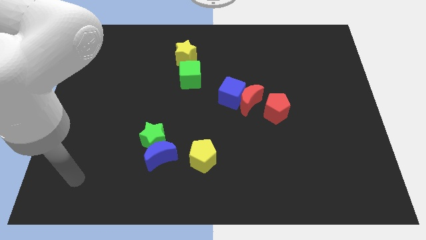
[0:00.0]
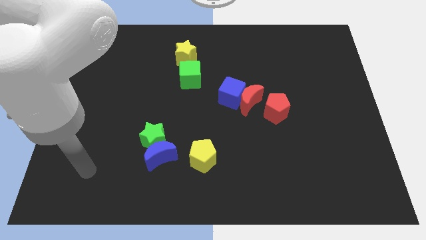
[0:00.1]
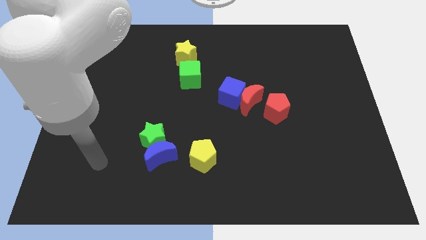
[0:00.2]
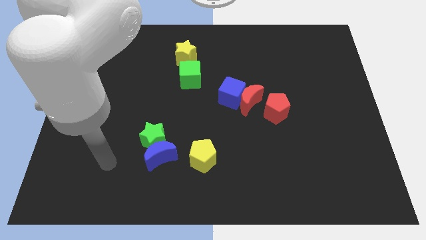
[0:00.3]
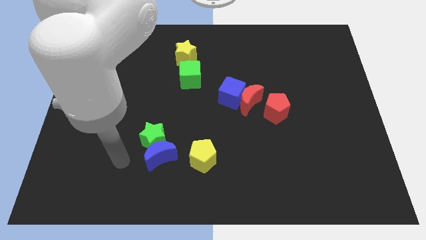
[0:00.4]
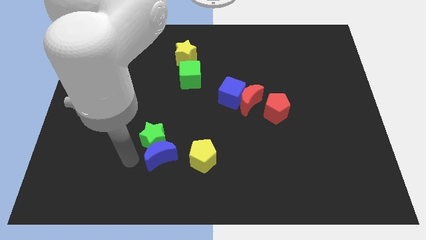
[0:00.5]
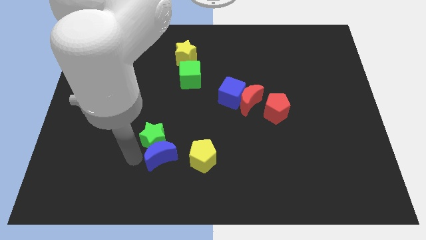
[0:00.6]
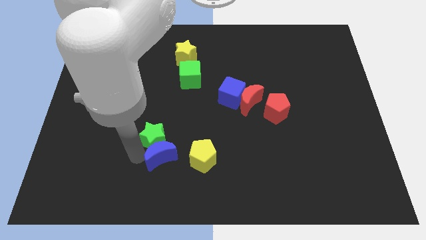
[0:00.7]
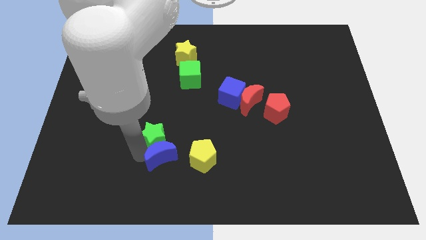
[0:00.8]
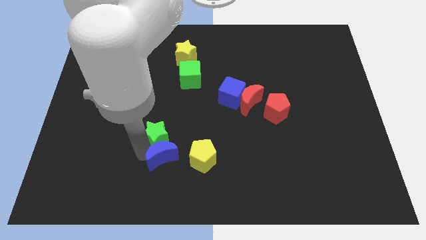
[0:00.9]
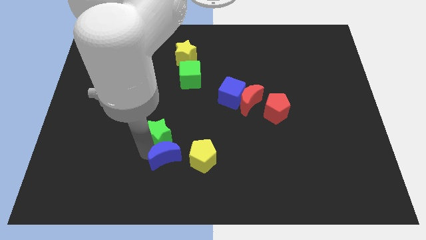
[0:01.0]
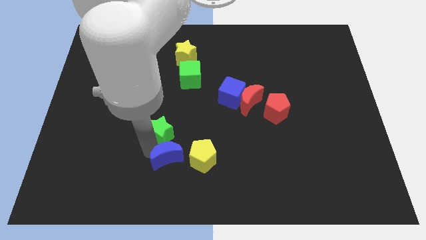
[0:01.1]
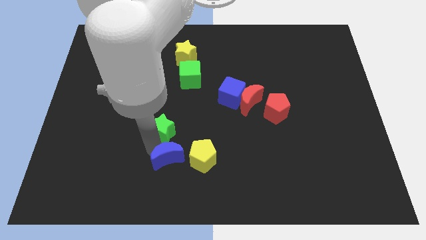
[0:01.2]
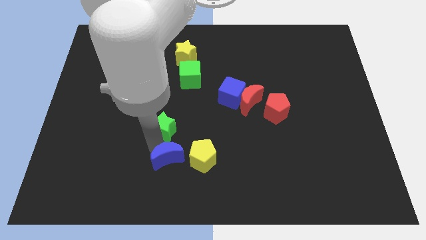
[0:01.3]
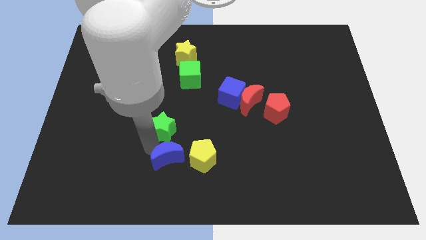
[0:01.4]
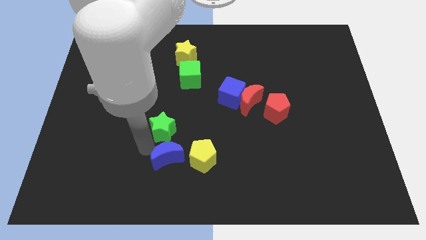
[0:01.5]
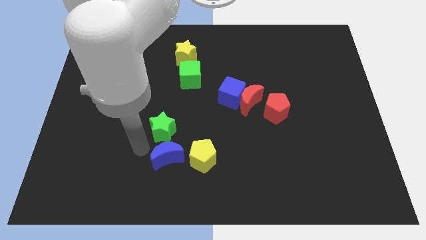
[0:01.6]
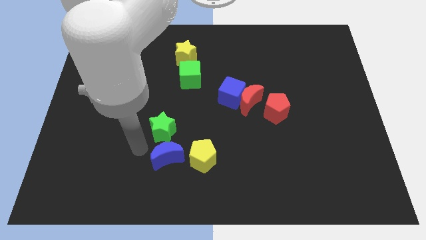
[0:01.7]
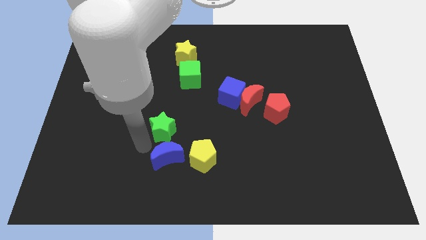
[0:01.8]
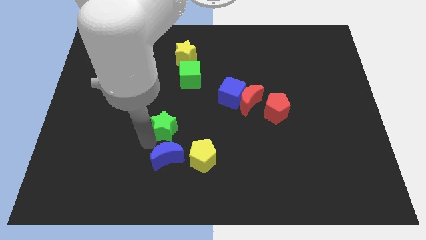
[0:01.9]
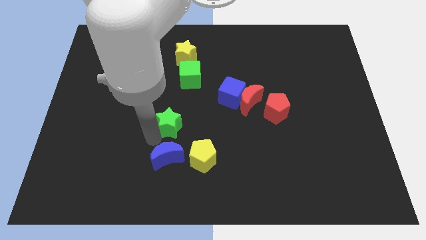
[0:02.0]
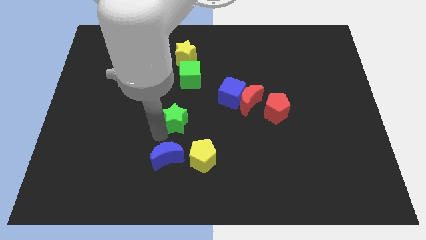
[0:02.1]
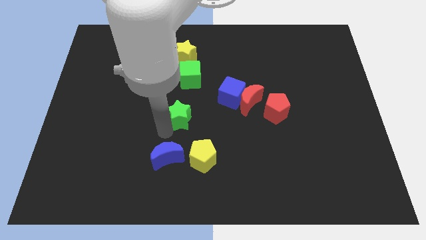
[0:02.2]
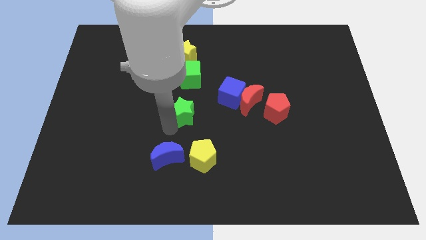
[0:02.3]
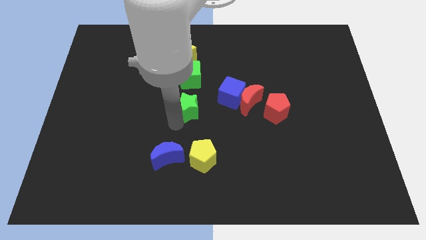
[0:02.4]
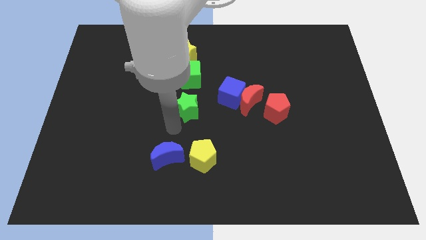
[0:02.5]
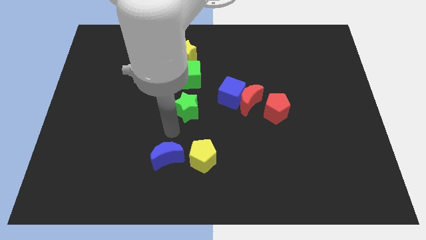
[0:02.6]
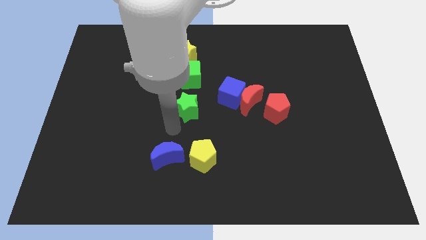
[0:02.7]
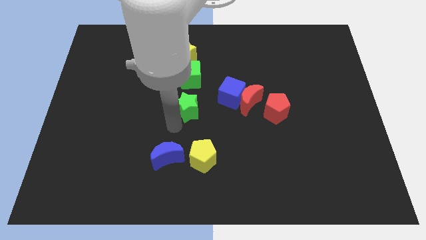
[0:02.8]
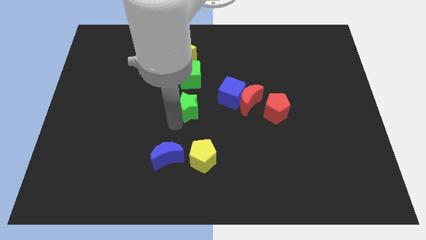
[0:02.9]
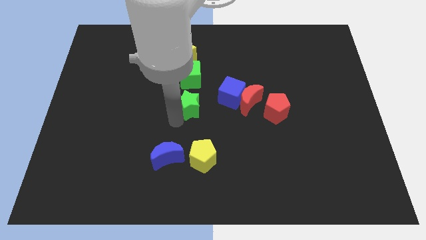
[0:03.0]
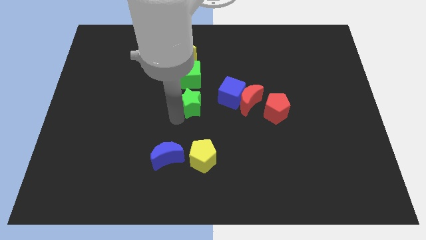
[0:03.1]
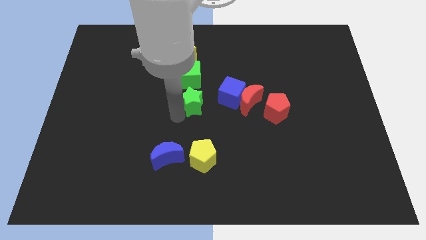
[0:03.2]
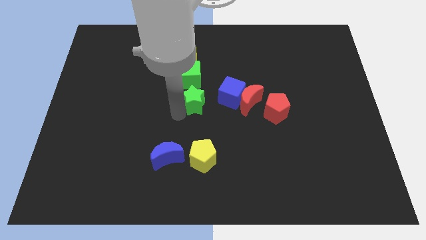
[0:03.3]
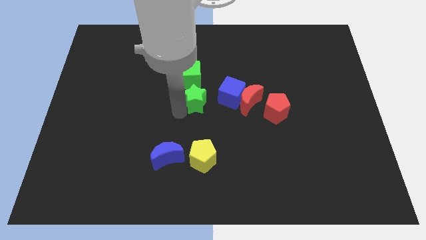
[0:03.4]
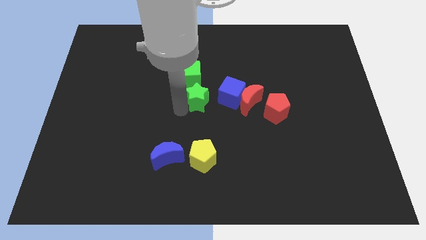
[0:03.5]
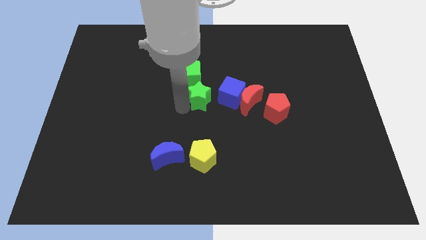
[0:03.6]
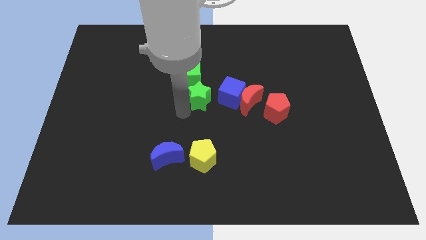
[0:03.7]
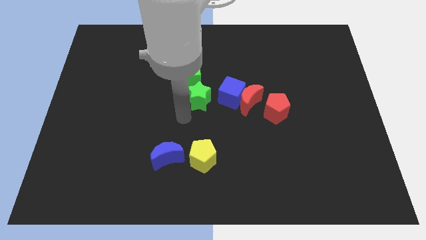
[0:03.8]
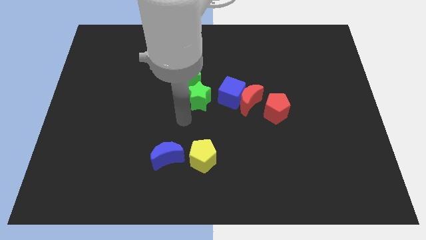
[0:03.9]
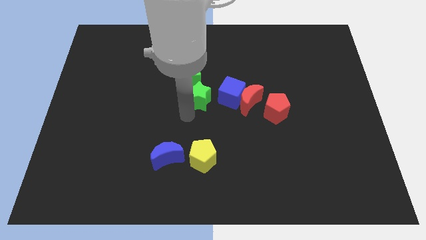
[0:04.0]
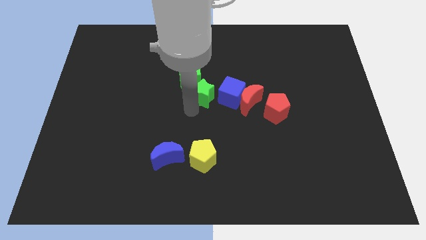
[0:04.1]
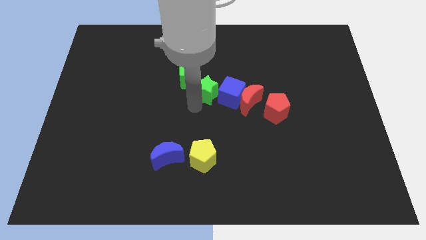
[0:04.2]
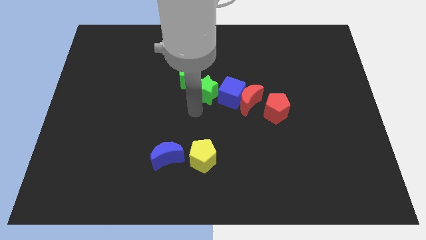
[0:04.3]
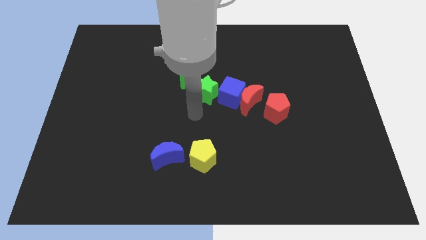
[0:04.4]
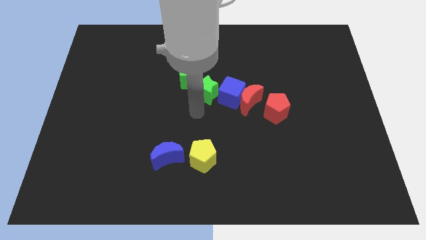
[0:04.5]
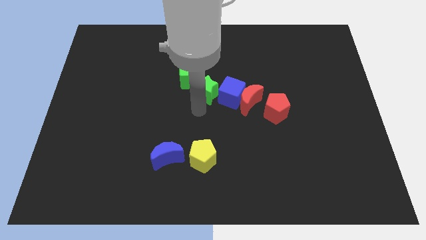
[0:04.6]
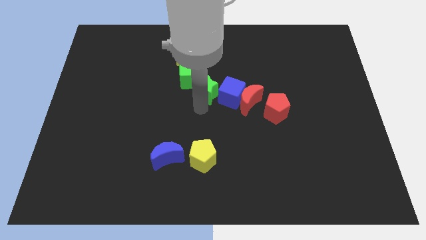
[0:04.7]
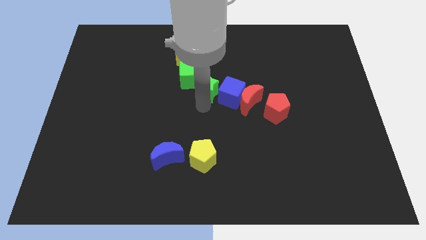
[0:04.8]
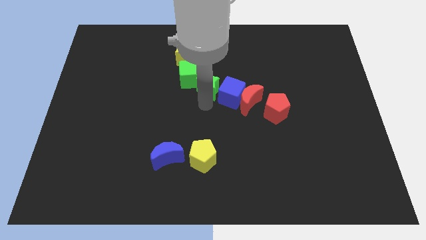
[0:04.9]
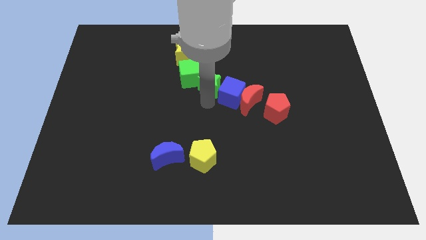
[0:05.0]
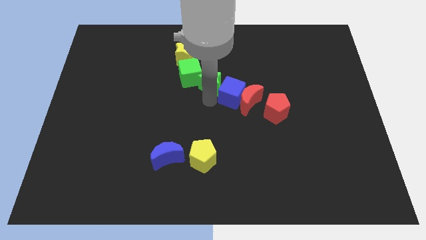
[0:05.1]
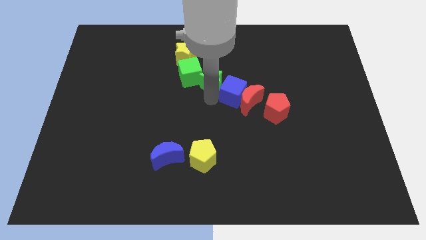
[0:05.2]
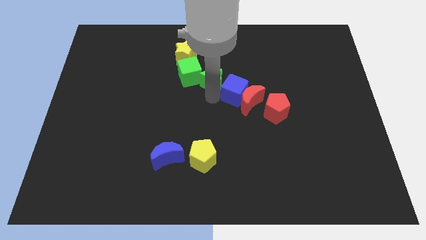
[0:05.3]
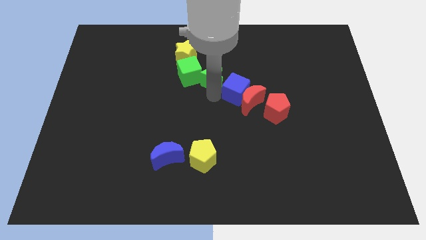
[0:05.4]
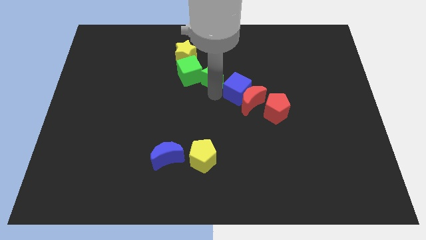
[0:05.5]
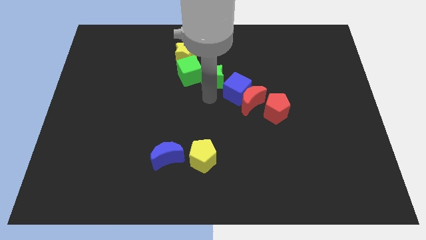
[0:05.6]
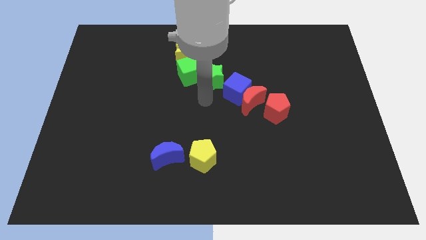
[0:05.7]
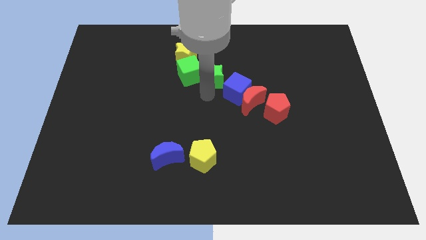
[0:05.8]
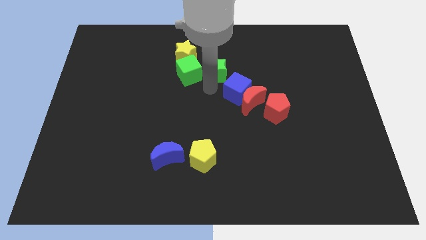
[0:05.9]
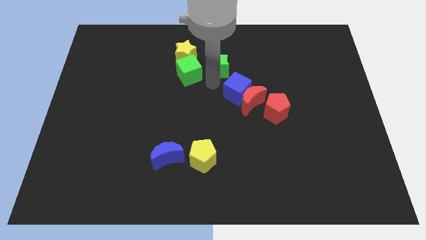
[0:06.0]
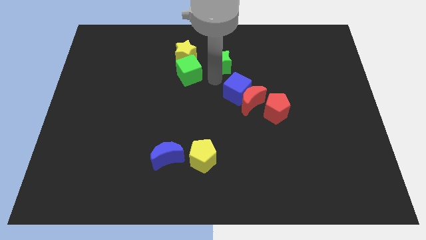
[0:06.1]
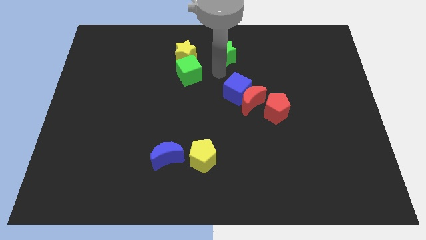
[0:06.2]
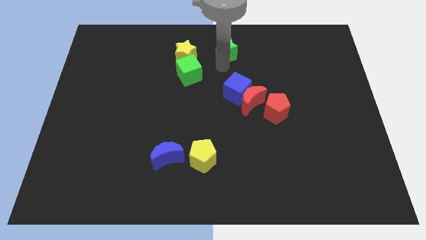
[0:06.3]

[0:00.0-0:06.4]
put the green star to the towards your base

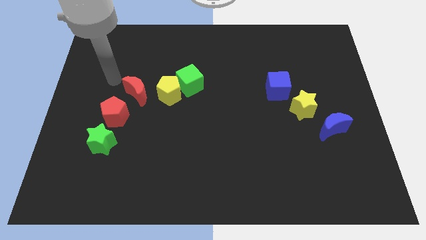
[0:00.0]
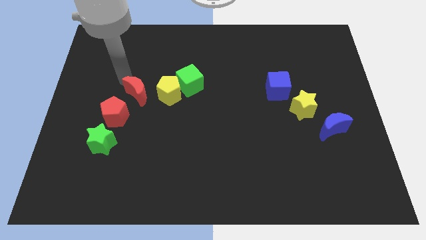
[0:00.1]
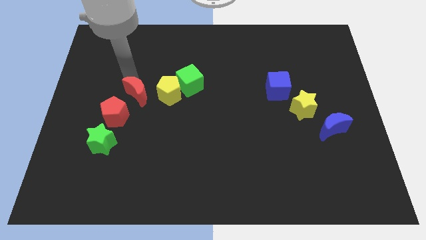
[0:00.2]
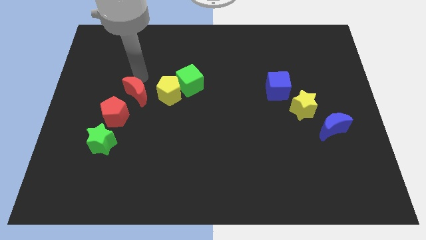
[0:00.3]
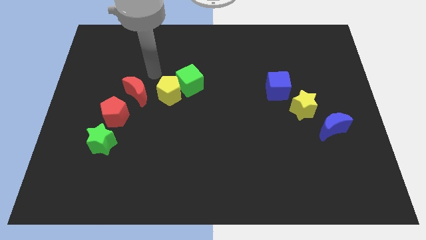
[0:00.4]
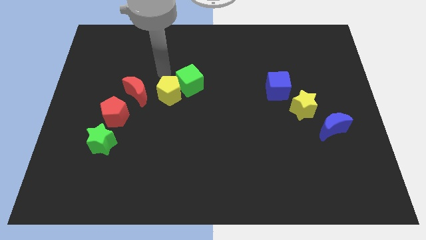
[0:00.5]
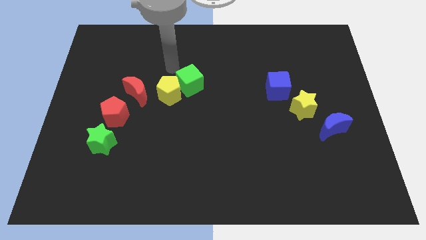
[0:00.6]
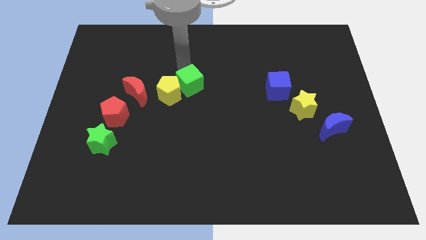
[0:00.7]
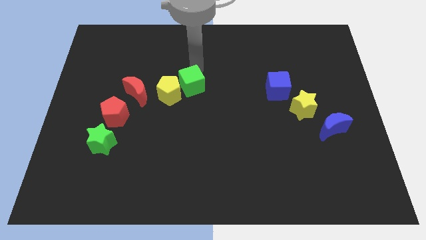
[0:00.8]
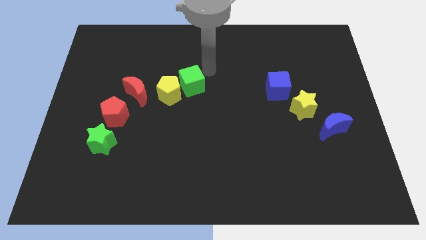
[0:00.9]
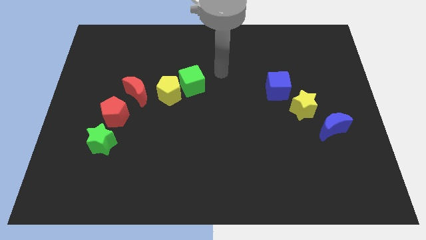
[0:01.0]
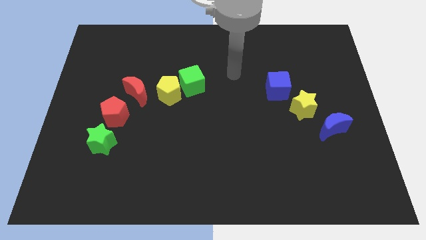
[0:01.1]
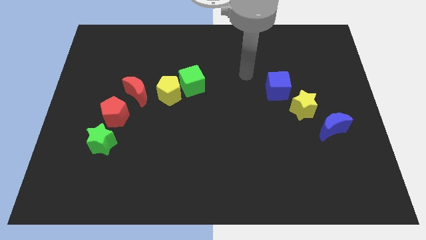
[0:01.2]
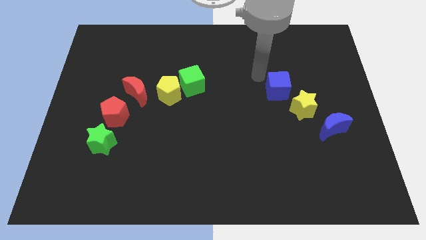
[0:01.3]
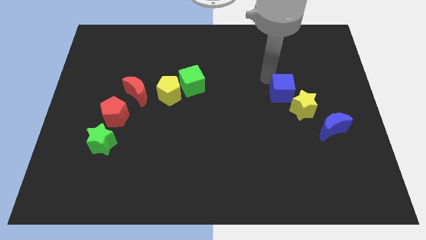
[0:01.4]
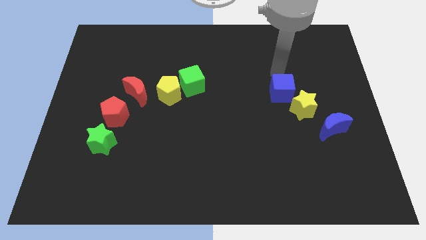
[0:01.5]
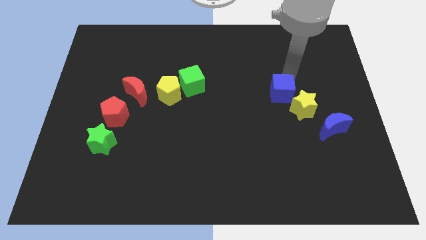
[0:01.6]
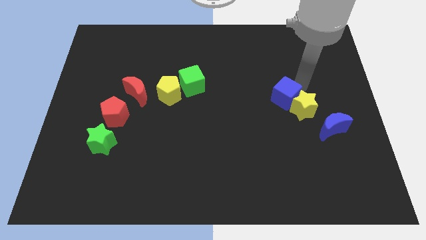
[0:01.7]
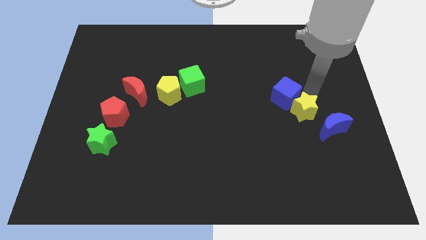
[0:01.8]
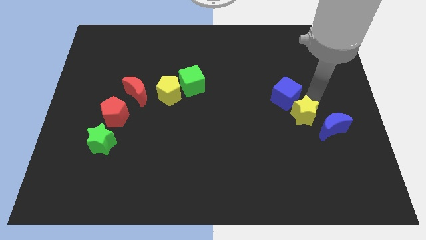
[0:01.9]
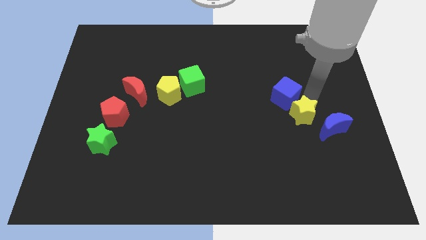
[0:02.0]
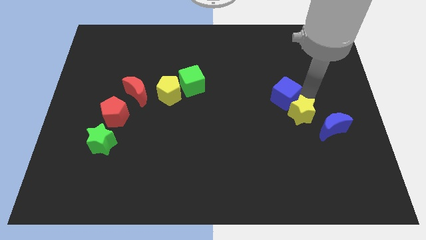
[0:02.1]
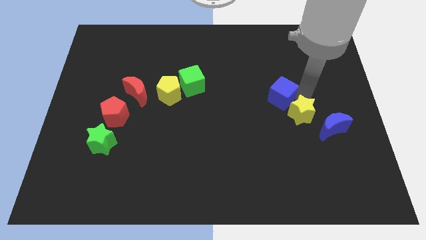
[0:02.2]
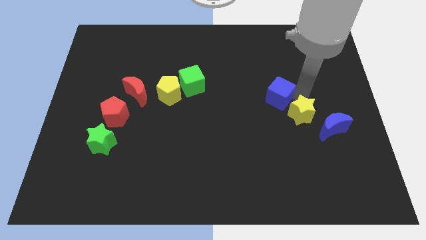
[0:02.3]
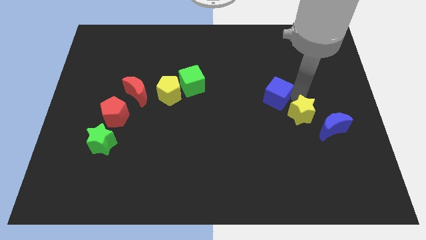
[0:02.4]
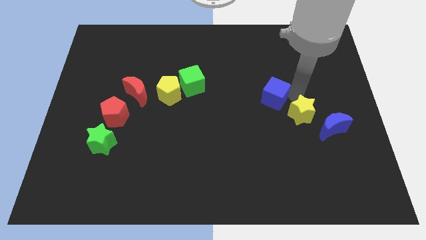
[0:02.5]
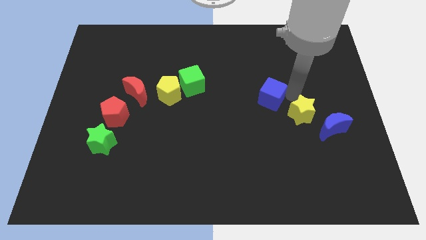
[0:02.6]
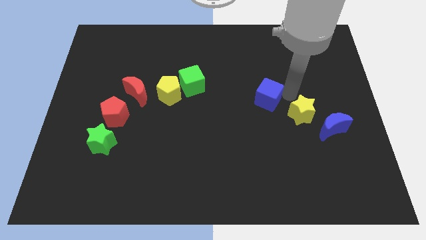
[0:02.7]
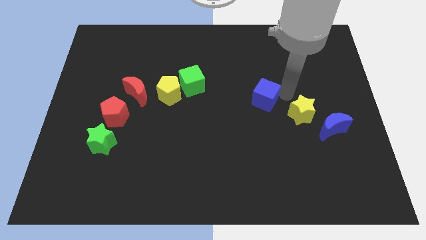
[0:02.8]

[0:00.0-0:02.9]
move the blue cube to the center
